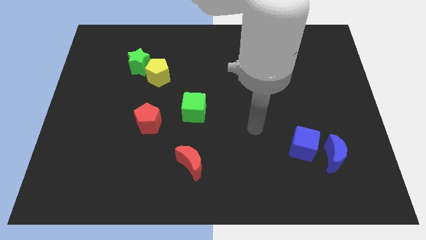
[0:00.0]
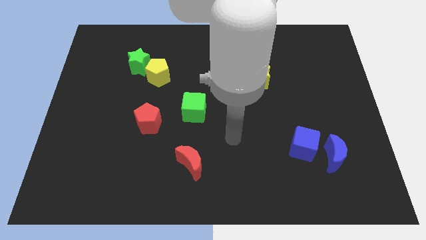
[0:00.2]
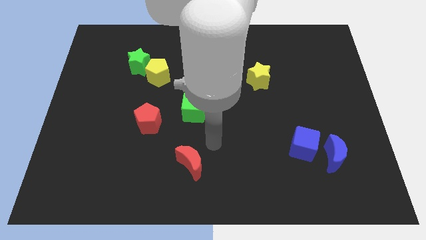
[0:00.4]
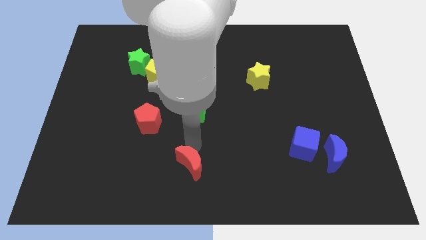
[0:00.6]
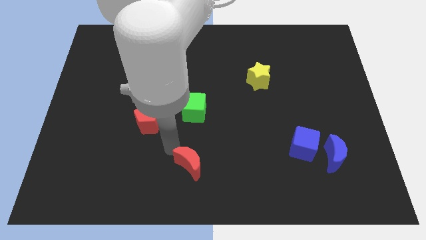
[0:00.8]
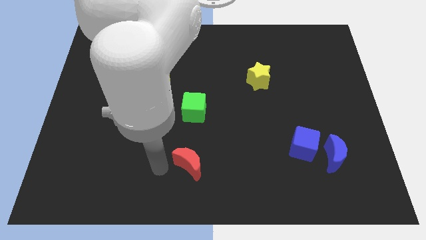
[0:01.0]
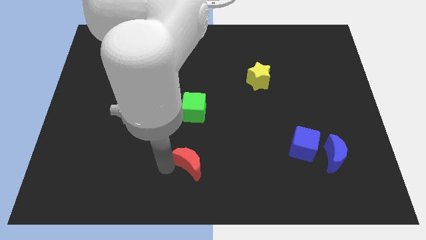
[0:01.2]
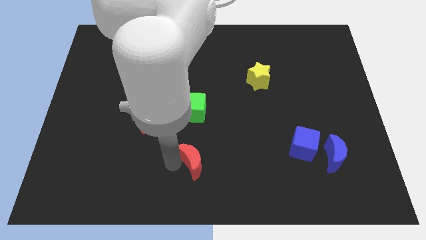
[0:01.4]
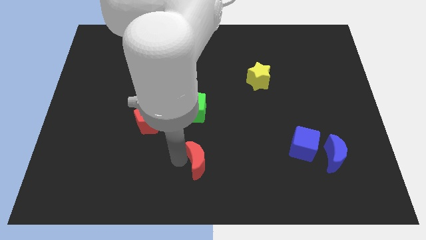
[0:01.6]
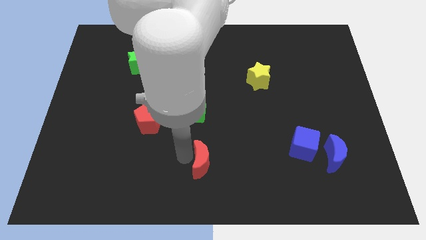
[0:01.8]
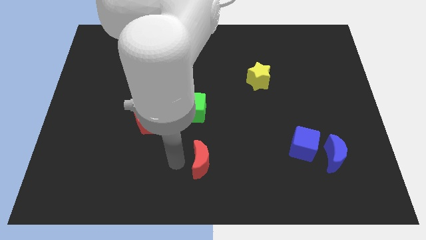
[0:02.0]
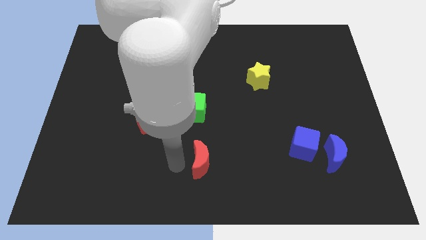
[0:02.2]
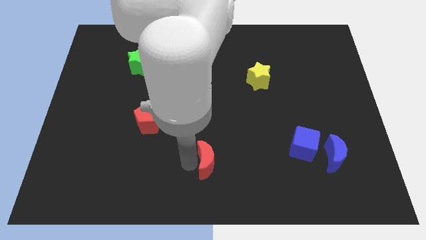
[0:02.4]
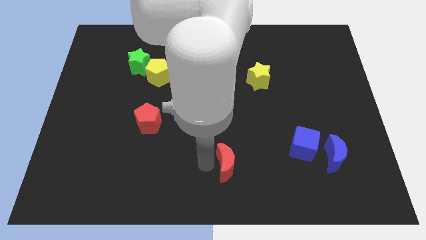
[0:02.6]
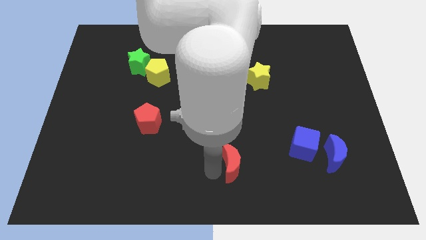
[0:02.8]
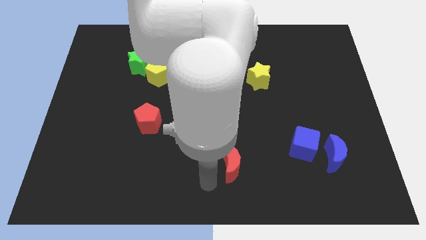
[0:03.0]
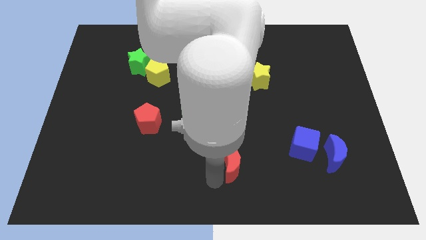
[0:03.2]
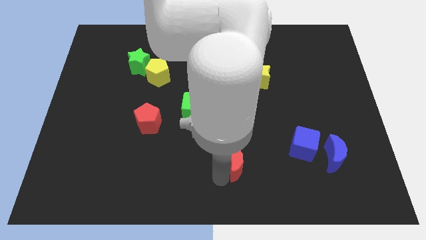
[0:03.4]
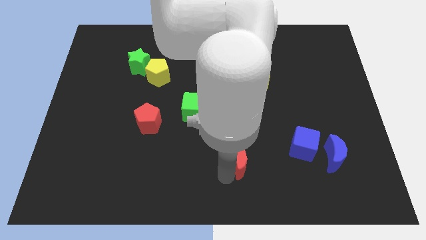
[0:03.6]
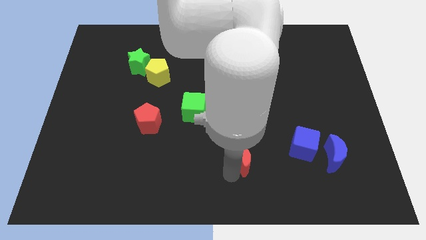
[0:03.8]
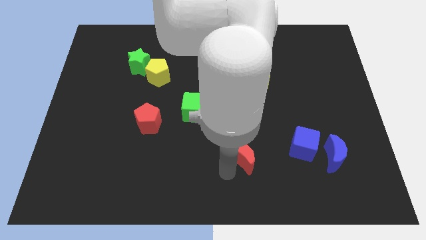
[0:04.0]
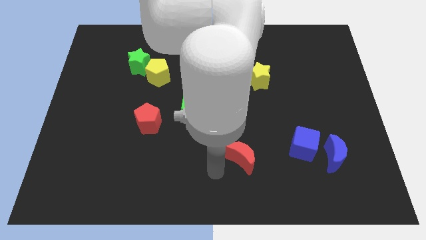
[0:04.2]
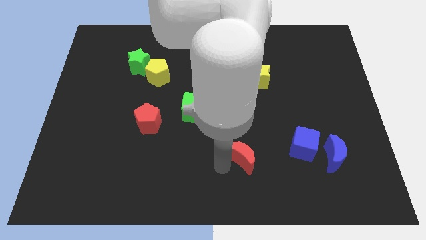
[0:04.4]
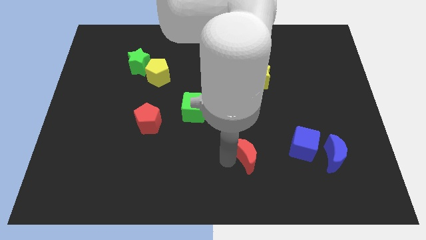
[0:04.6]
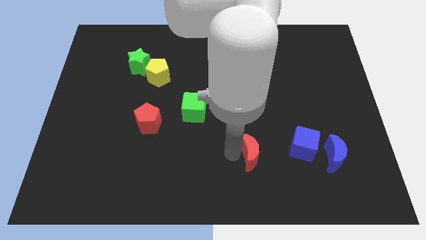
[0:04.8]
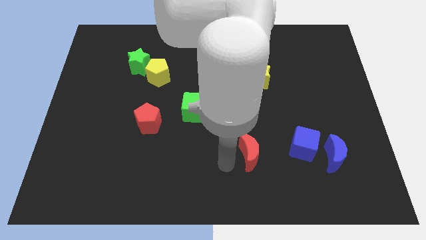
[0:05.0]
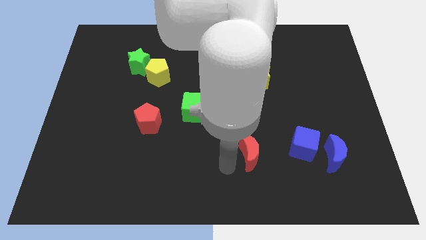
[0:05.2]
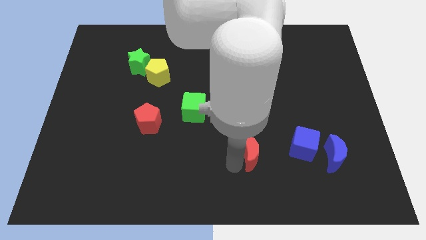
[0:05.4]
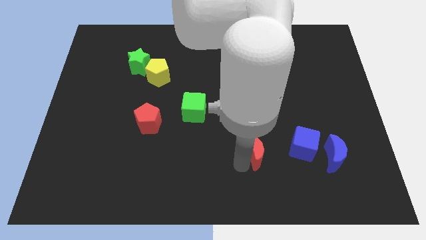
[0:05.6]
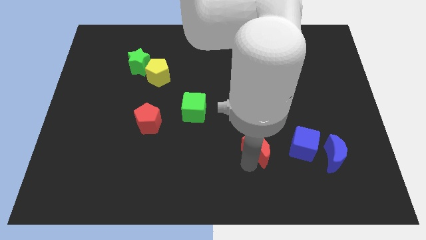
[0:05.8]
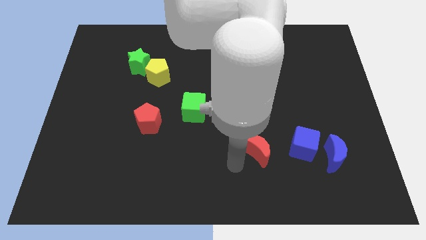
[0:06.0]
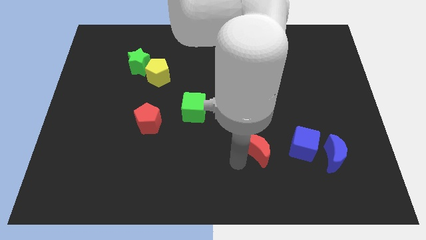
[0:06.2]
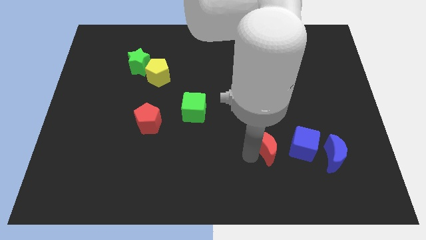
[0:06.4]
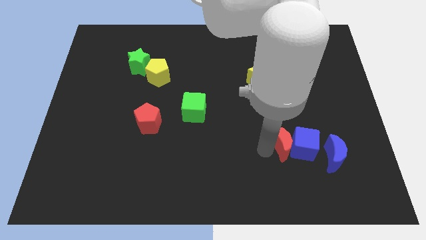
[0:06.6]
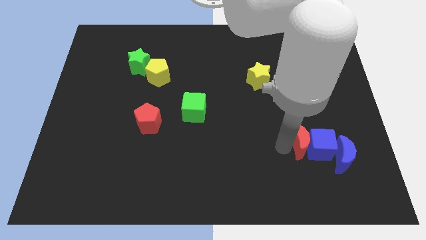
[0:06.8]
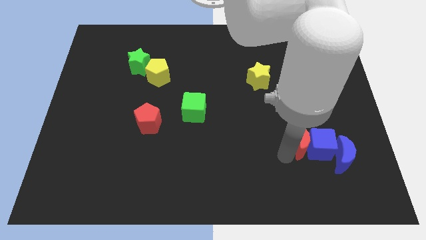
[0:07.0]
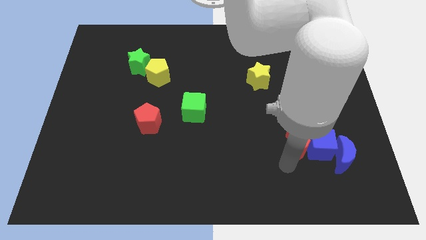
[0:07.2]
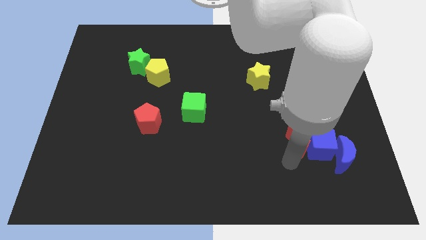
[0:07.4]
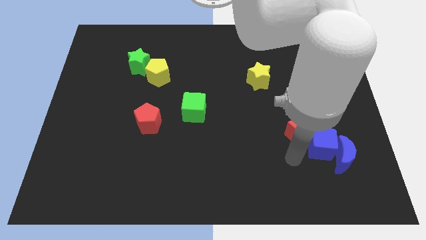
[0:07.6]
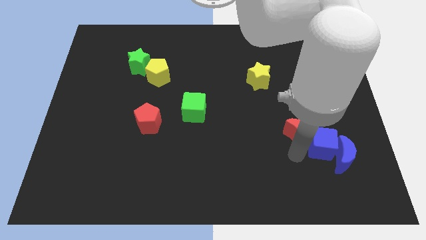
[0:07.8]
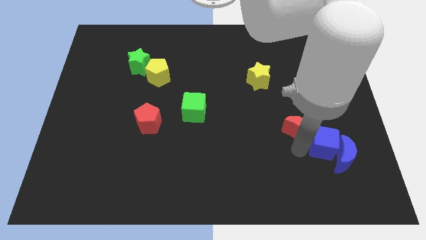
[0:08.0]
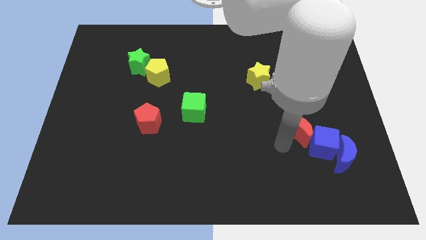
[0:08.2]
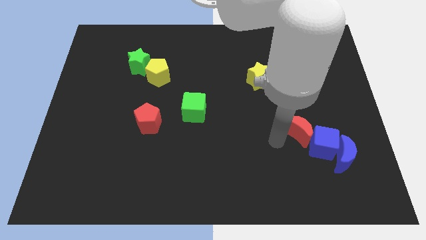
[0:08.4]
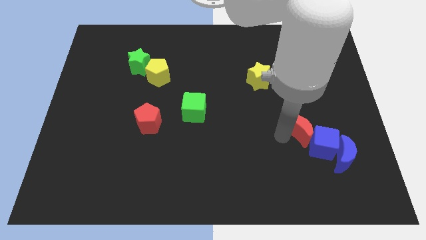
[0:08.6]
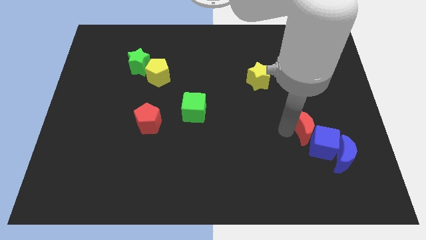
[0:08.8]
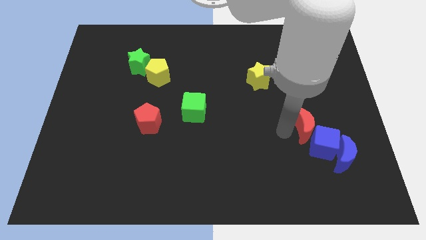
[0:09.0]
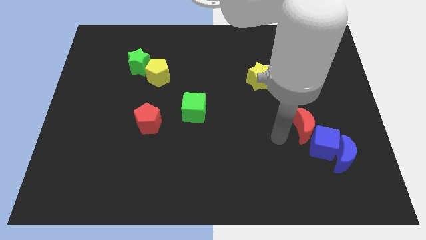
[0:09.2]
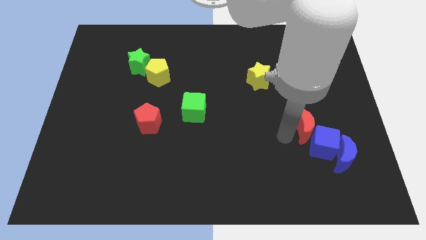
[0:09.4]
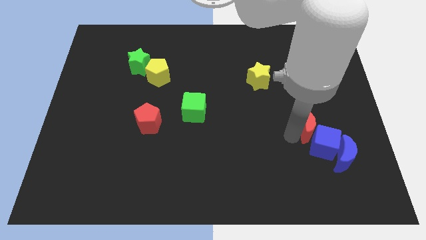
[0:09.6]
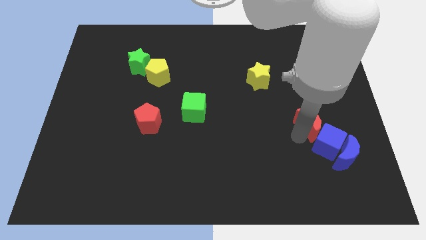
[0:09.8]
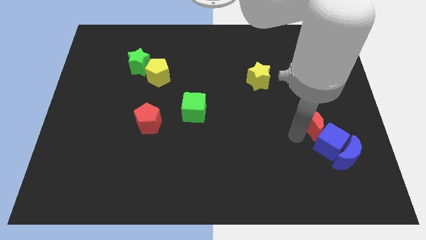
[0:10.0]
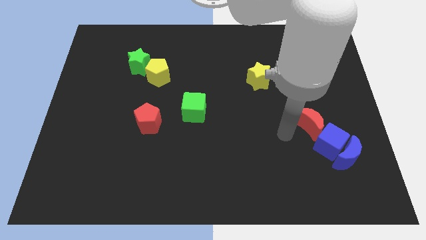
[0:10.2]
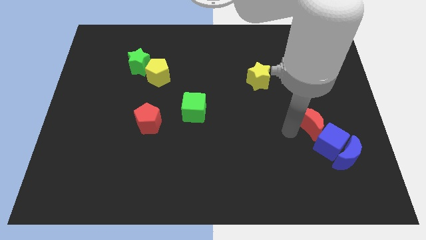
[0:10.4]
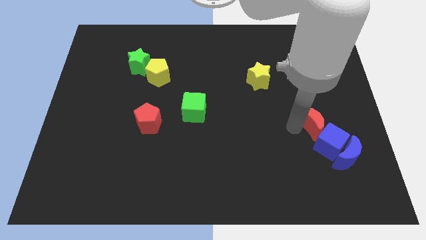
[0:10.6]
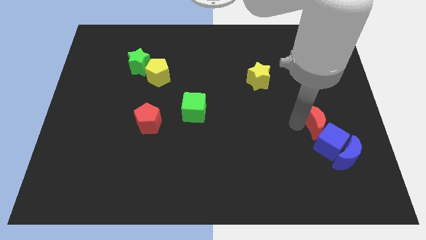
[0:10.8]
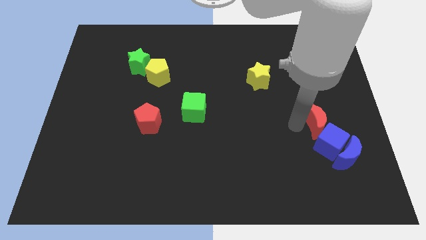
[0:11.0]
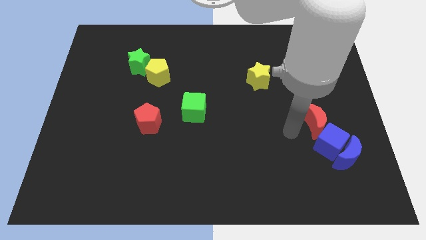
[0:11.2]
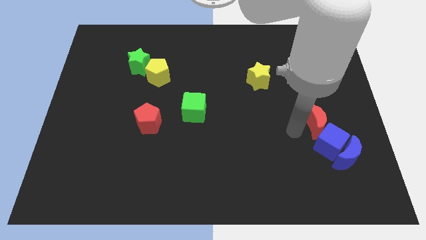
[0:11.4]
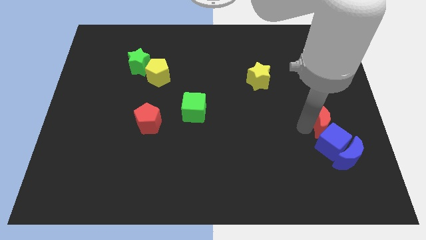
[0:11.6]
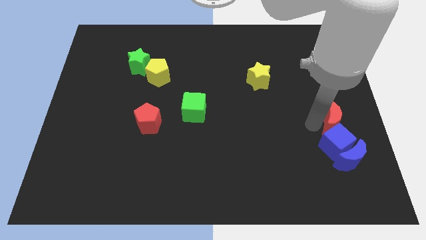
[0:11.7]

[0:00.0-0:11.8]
put the red moon to the center right

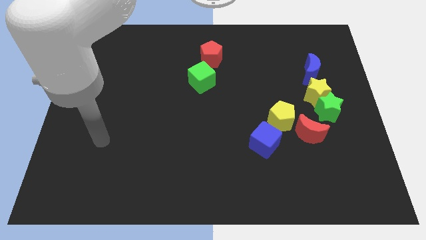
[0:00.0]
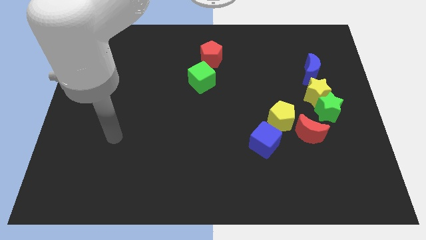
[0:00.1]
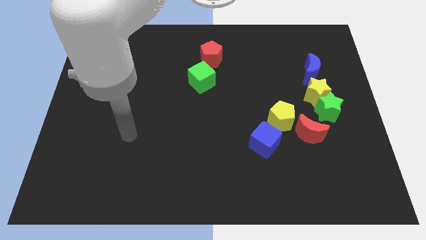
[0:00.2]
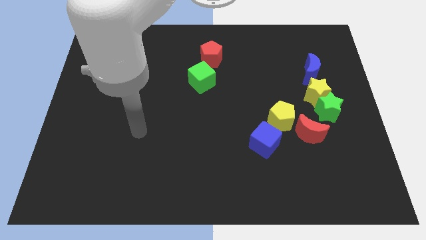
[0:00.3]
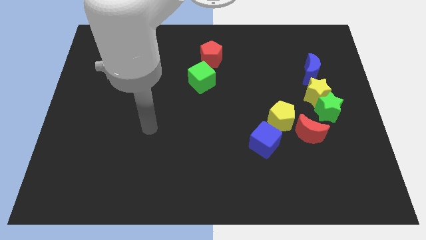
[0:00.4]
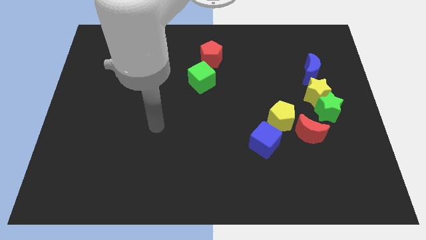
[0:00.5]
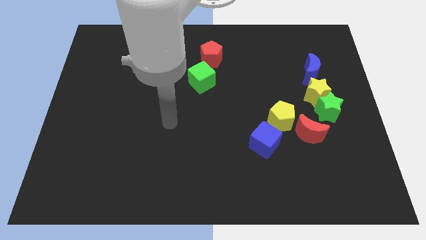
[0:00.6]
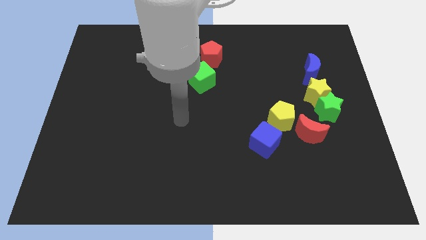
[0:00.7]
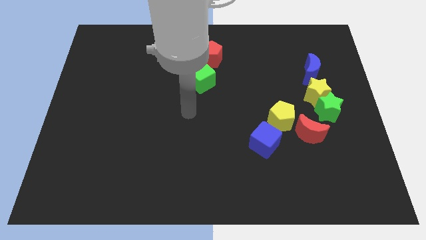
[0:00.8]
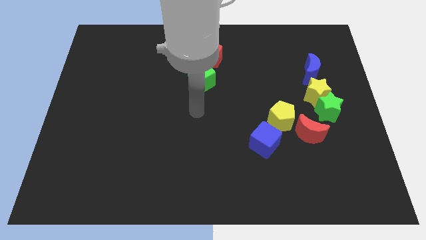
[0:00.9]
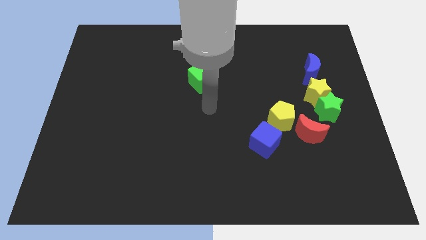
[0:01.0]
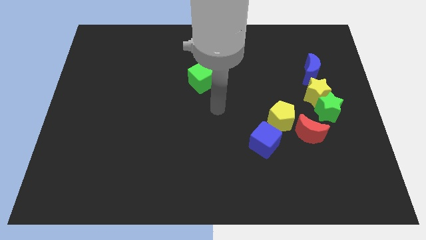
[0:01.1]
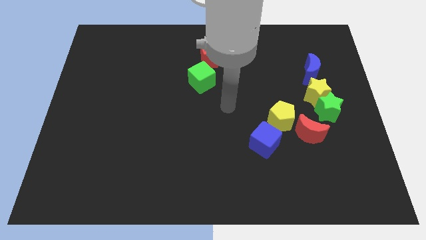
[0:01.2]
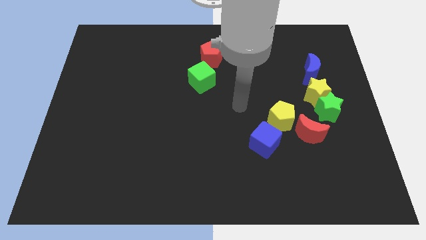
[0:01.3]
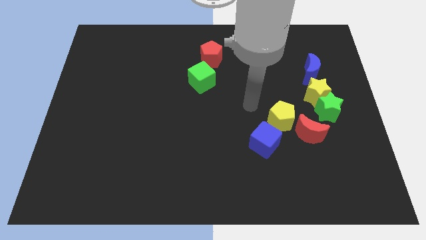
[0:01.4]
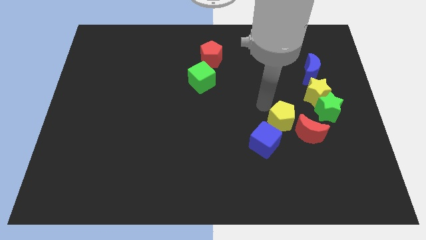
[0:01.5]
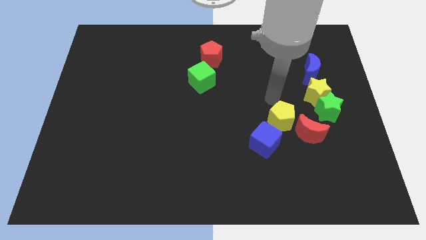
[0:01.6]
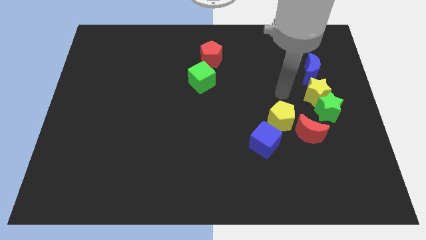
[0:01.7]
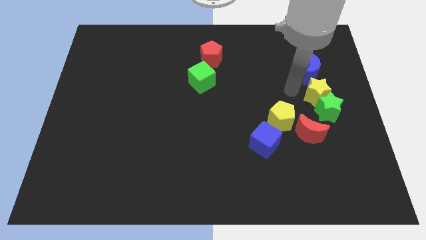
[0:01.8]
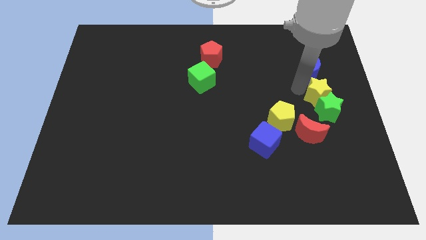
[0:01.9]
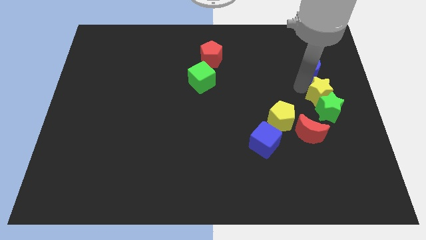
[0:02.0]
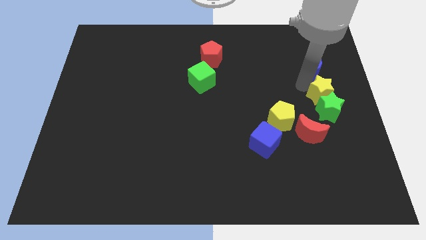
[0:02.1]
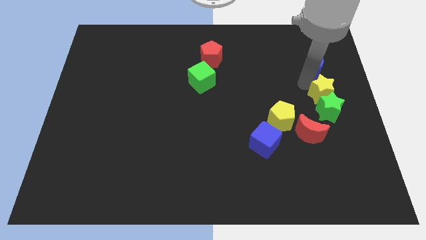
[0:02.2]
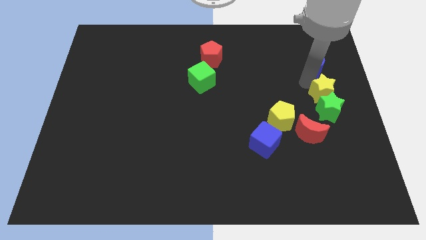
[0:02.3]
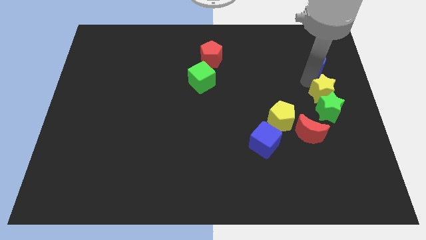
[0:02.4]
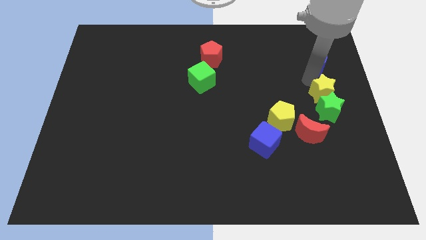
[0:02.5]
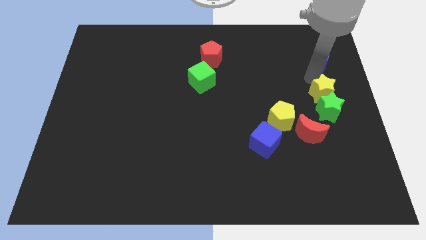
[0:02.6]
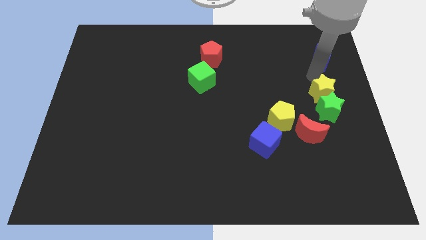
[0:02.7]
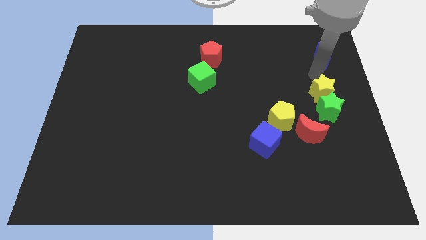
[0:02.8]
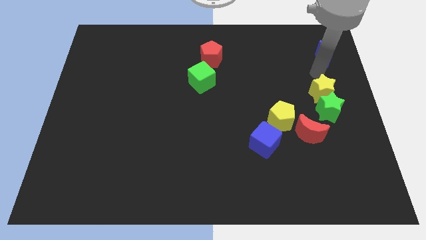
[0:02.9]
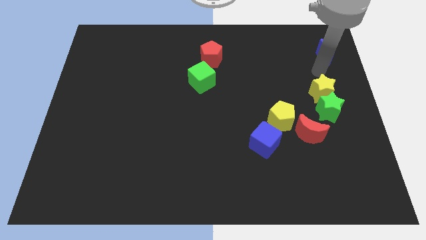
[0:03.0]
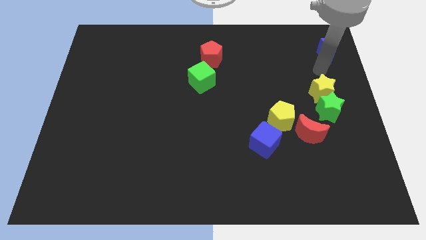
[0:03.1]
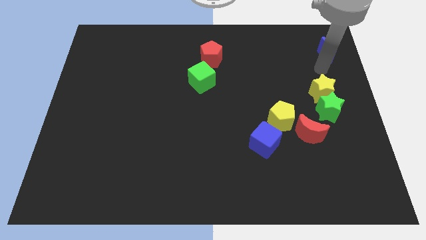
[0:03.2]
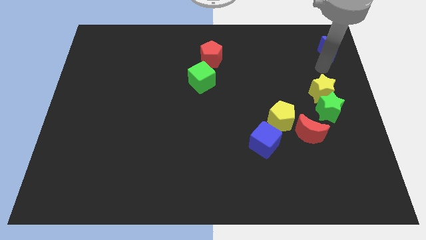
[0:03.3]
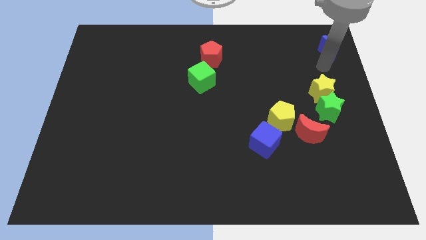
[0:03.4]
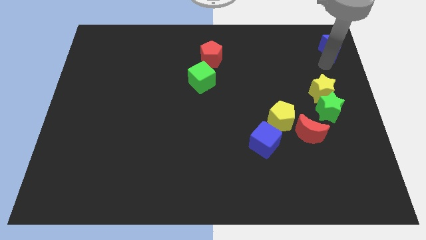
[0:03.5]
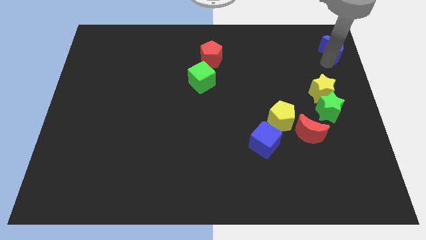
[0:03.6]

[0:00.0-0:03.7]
move the blue moon to the upper right corner
